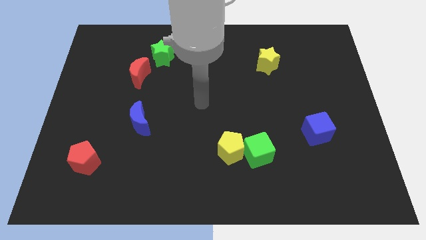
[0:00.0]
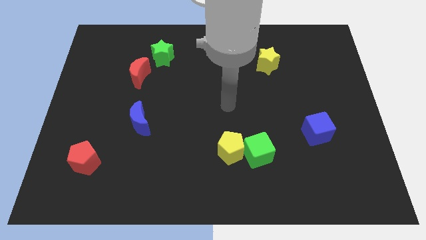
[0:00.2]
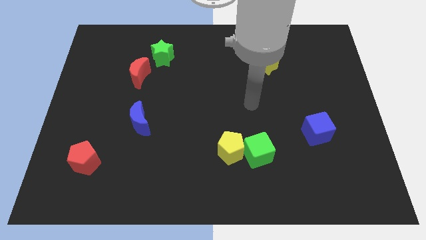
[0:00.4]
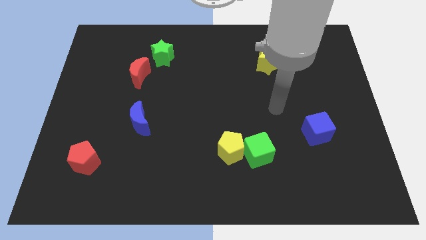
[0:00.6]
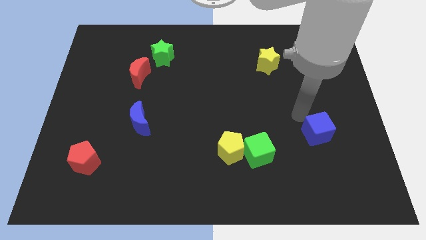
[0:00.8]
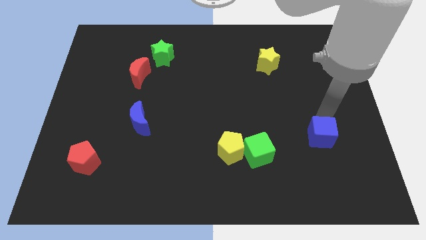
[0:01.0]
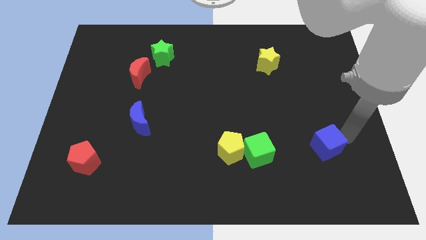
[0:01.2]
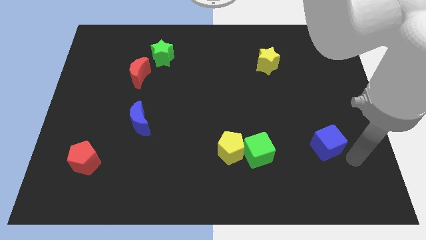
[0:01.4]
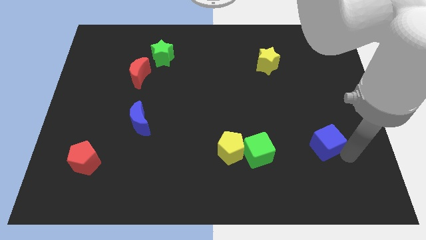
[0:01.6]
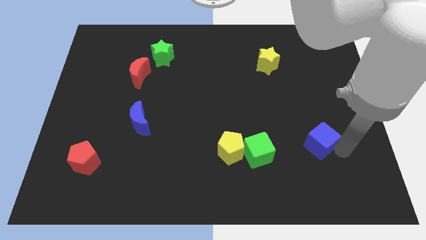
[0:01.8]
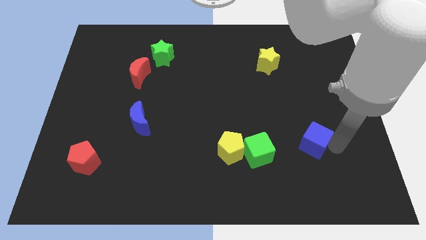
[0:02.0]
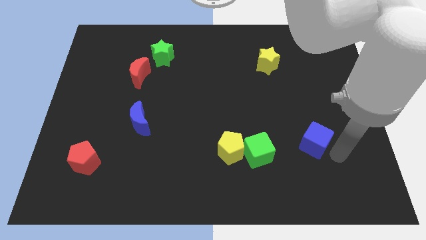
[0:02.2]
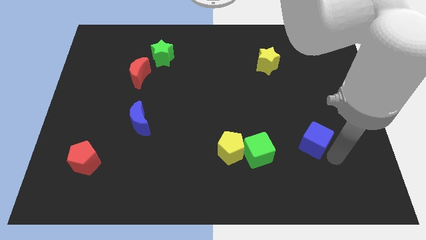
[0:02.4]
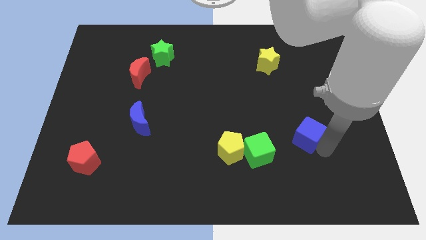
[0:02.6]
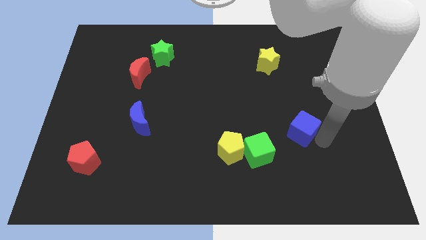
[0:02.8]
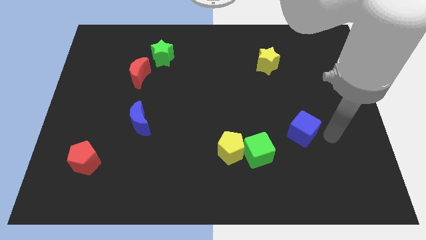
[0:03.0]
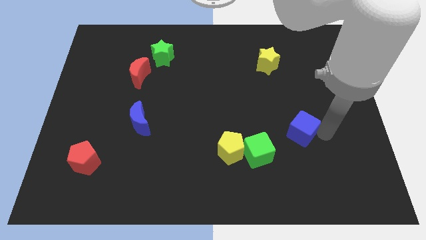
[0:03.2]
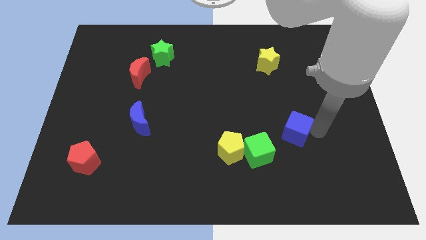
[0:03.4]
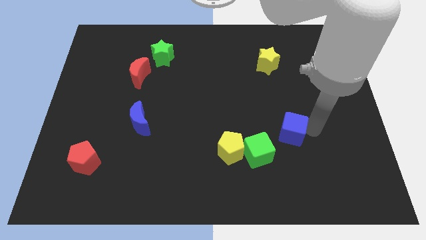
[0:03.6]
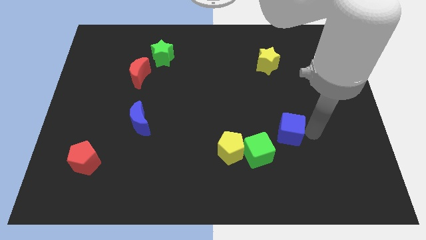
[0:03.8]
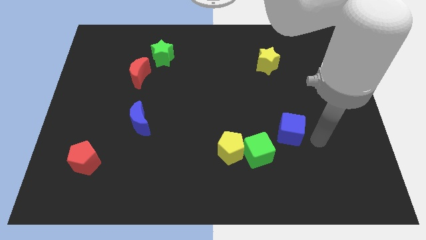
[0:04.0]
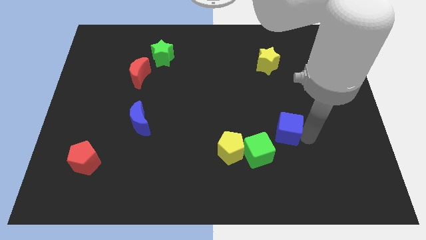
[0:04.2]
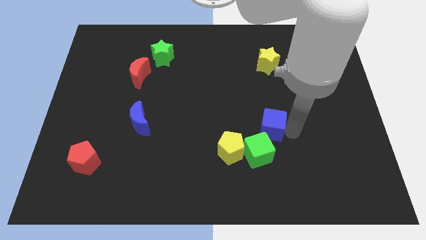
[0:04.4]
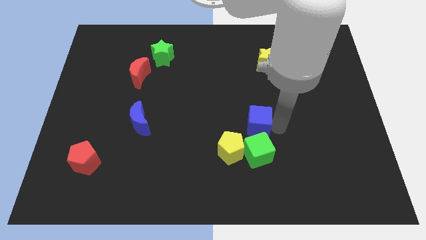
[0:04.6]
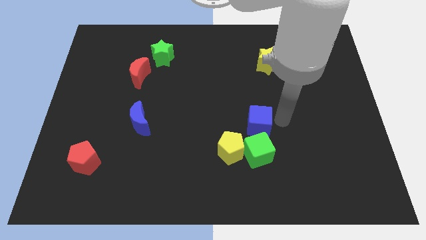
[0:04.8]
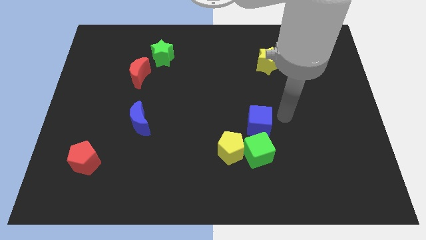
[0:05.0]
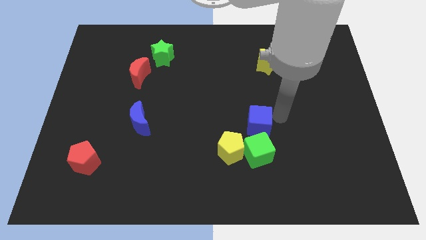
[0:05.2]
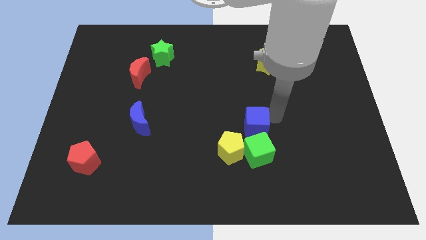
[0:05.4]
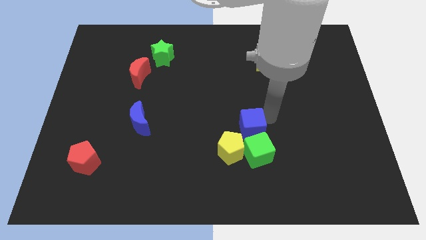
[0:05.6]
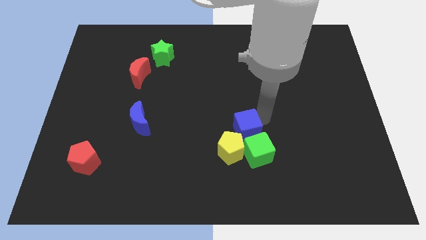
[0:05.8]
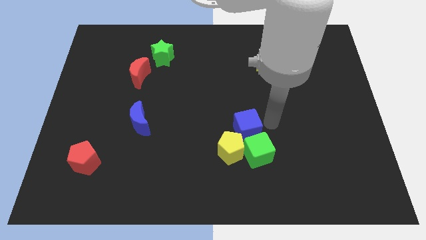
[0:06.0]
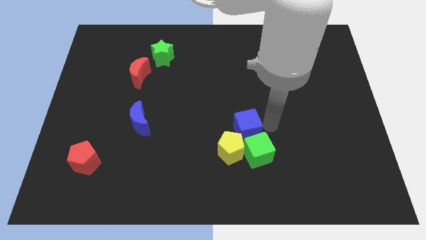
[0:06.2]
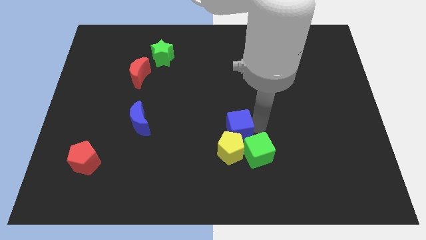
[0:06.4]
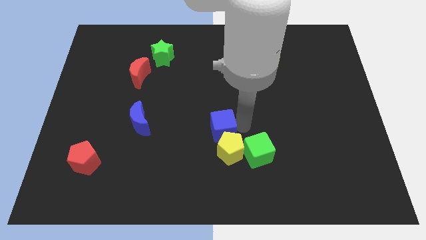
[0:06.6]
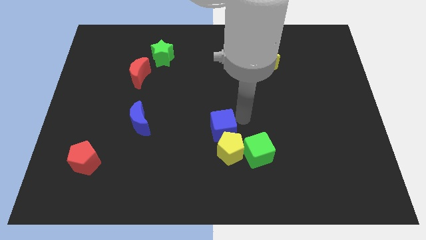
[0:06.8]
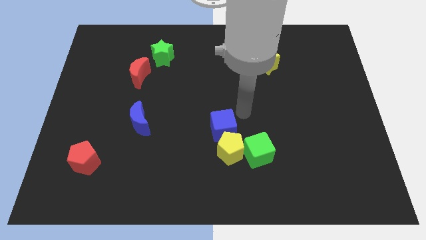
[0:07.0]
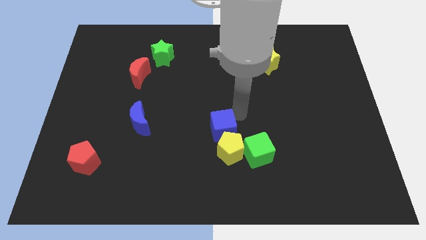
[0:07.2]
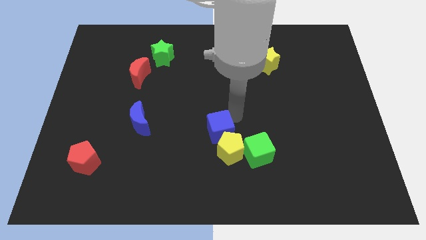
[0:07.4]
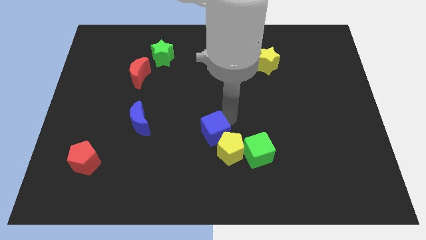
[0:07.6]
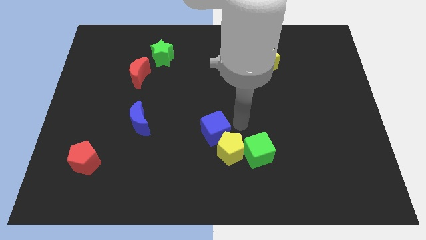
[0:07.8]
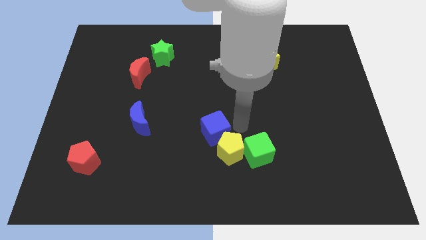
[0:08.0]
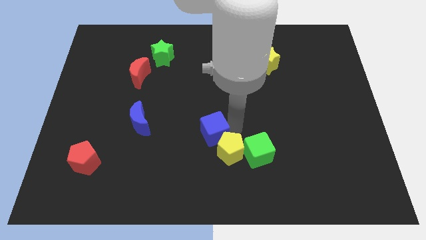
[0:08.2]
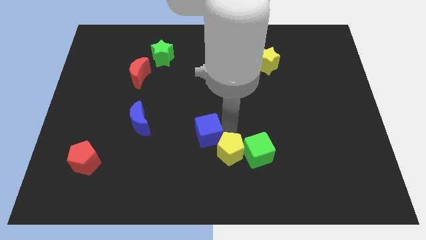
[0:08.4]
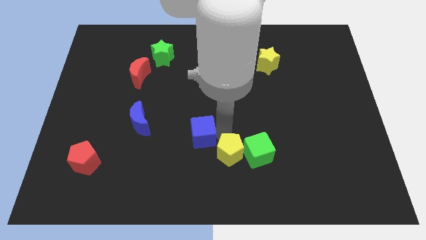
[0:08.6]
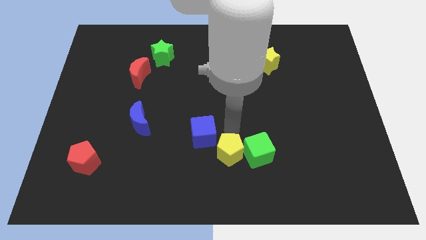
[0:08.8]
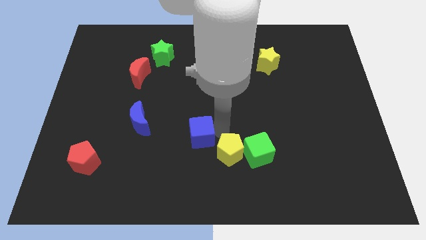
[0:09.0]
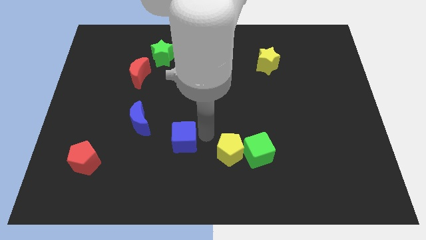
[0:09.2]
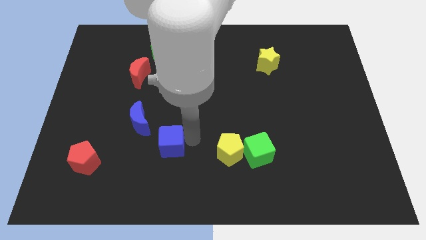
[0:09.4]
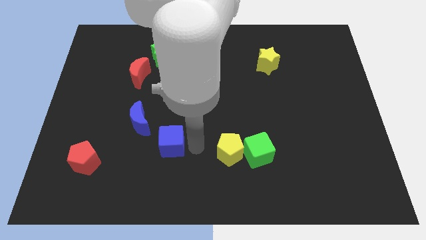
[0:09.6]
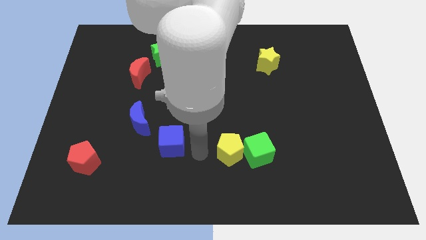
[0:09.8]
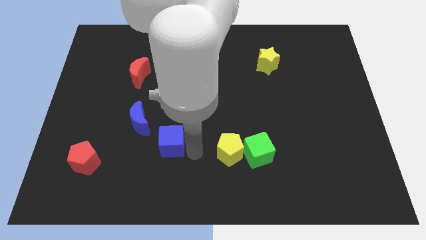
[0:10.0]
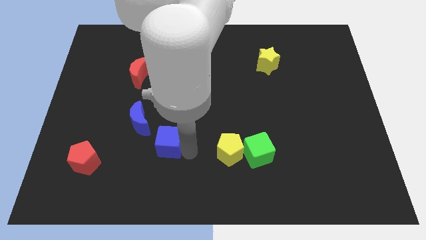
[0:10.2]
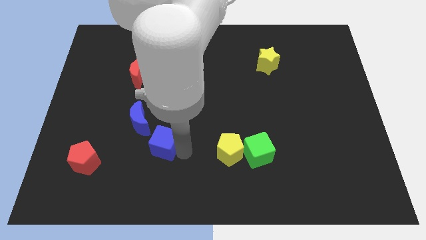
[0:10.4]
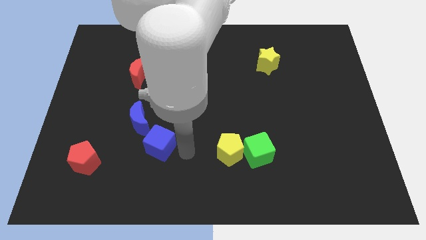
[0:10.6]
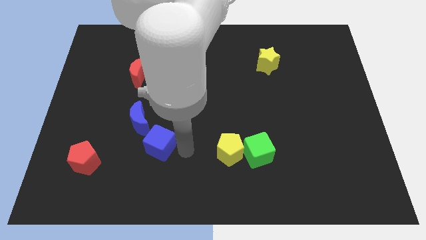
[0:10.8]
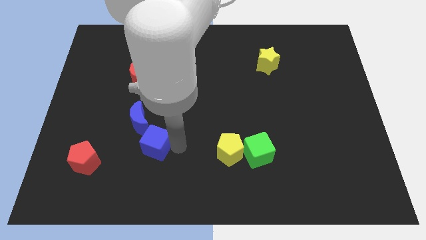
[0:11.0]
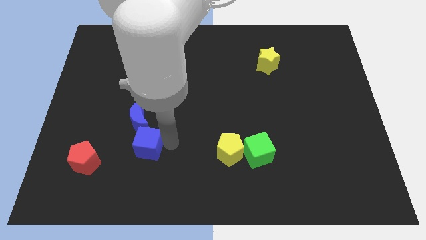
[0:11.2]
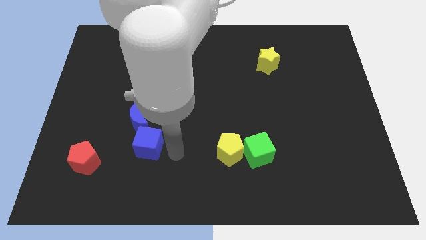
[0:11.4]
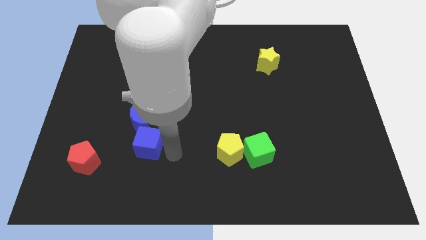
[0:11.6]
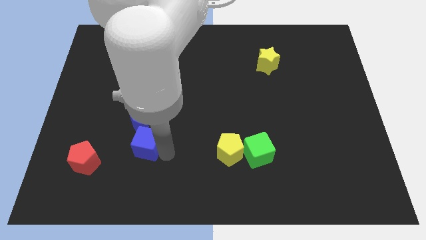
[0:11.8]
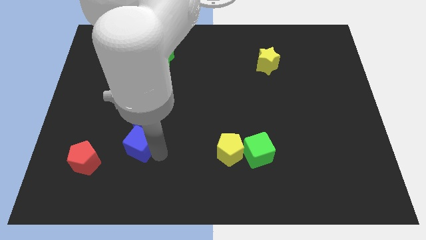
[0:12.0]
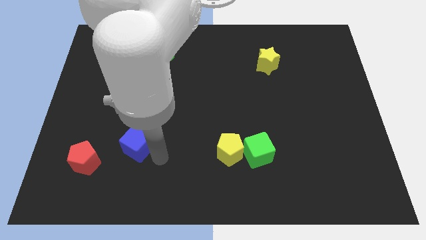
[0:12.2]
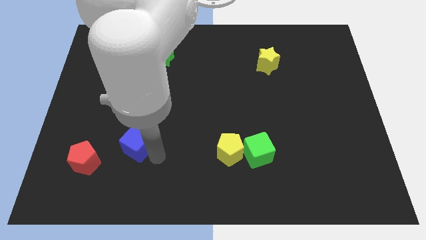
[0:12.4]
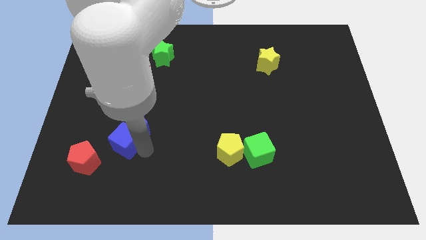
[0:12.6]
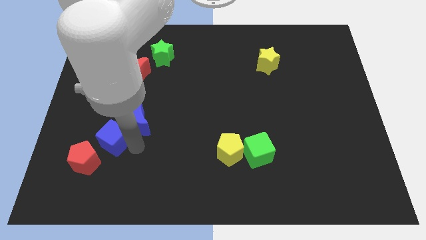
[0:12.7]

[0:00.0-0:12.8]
put the blue cube to the left of the blue moon
